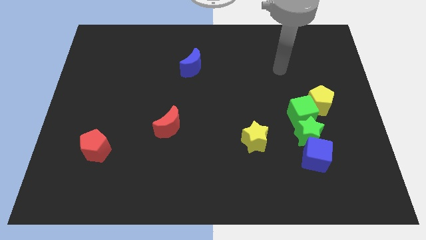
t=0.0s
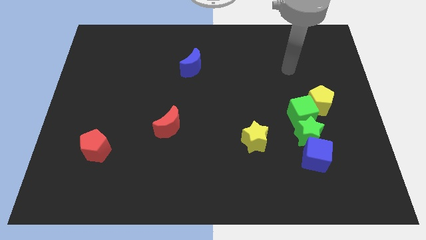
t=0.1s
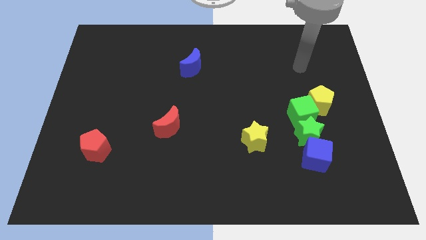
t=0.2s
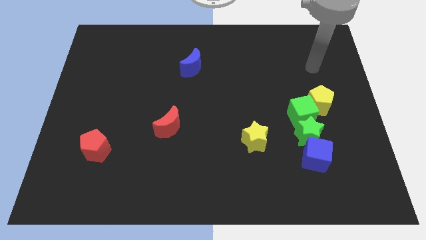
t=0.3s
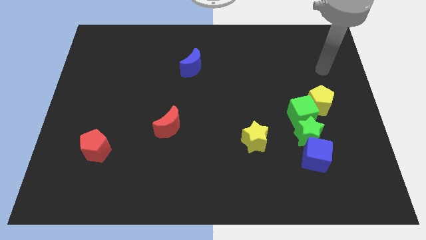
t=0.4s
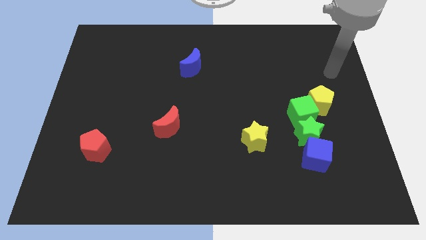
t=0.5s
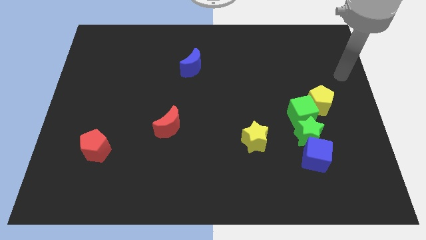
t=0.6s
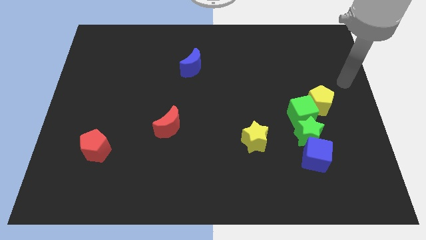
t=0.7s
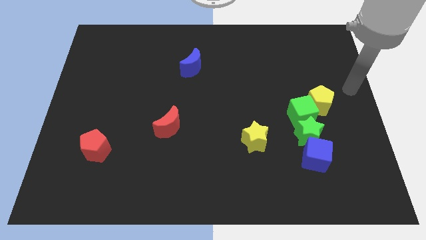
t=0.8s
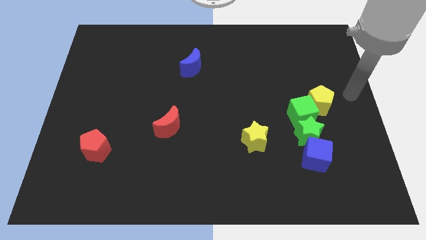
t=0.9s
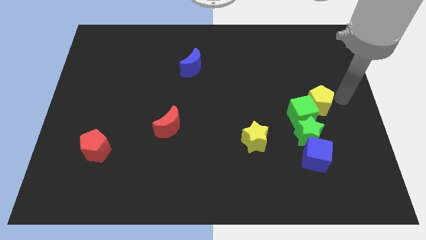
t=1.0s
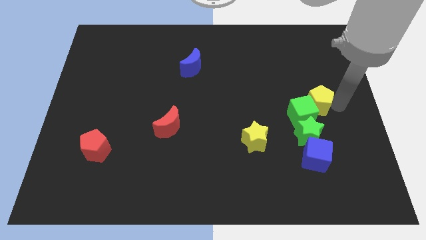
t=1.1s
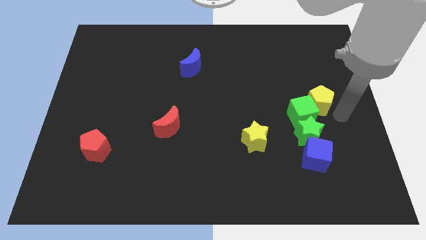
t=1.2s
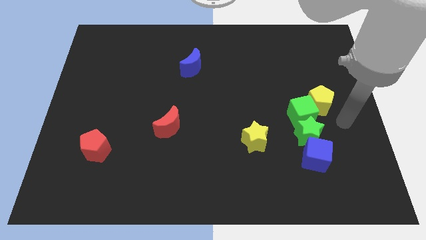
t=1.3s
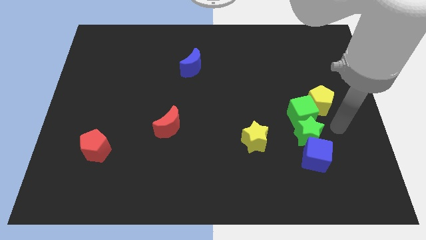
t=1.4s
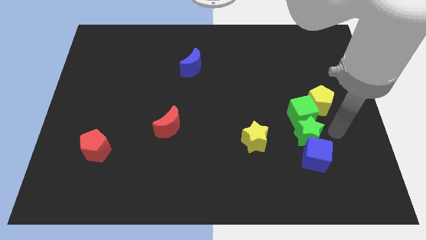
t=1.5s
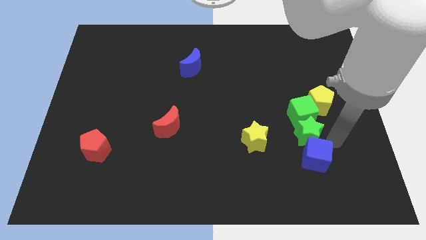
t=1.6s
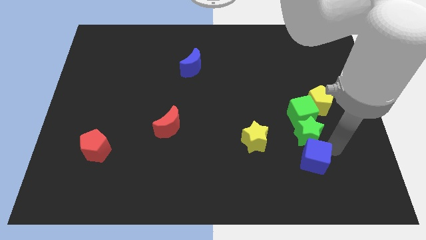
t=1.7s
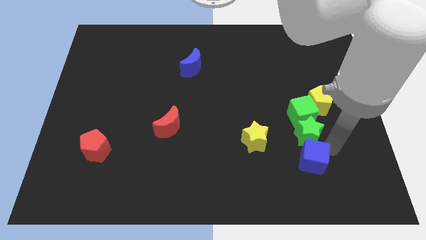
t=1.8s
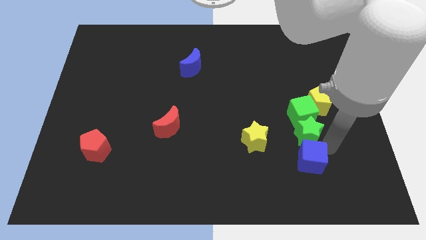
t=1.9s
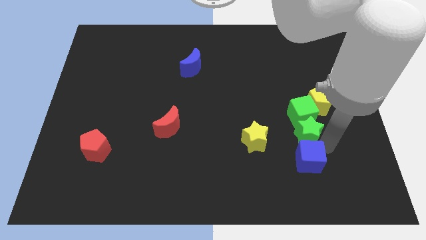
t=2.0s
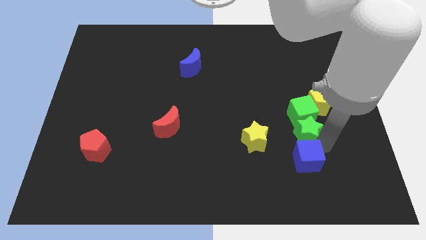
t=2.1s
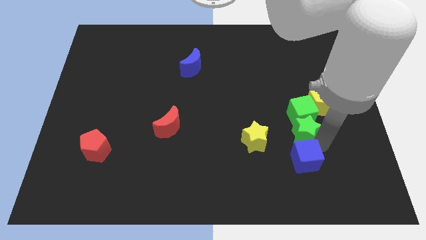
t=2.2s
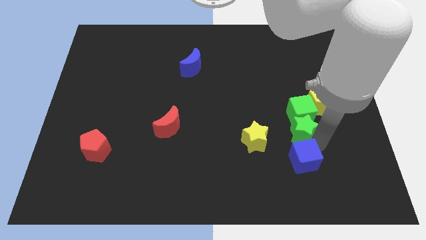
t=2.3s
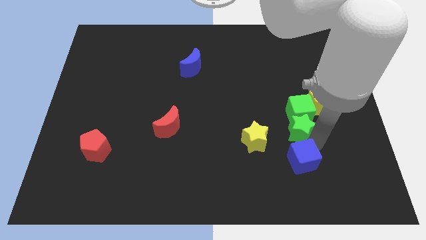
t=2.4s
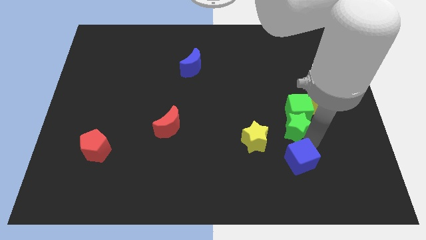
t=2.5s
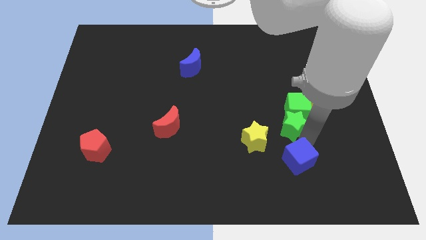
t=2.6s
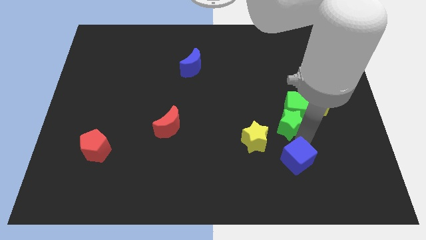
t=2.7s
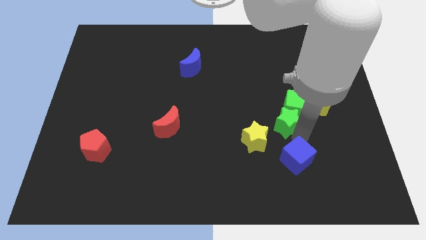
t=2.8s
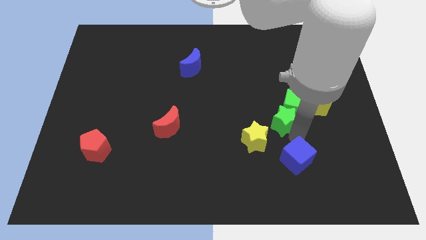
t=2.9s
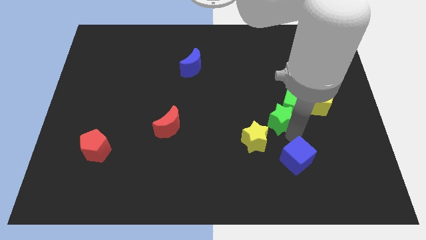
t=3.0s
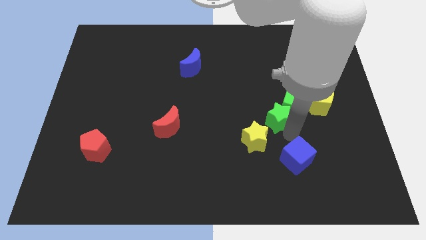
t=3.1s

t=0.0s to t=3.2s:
slide the green star somewhat diagonally upwards and to the left

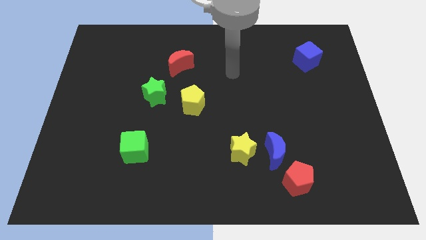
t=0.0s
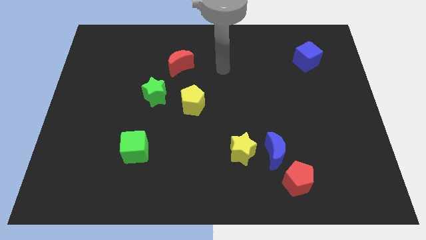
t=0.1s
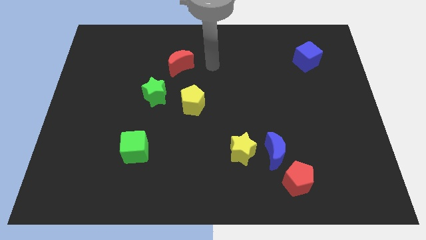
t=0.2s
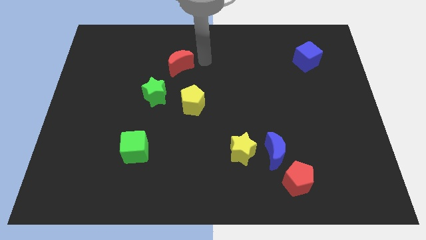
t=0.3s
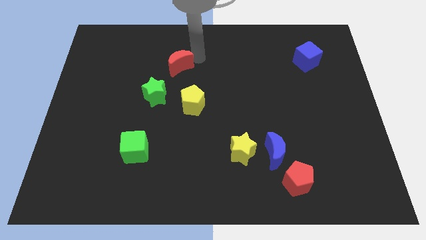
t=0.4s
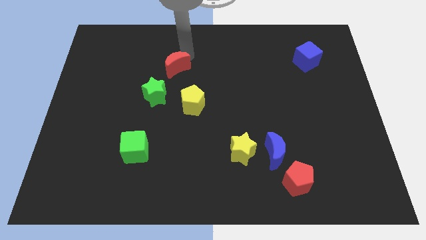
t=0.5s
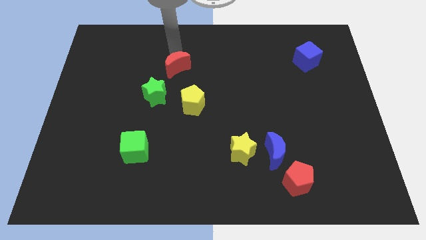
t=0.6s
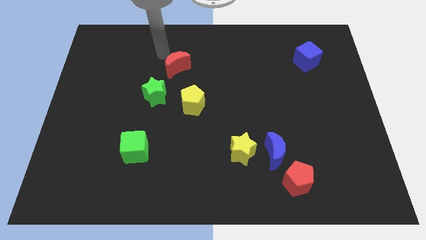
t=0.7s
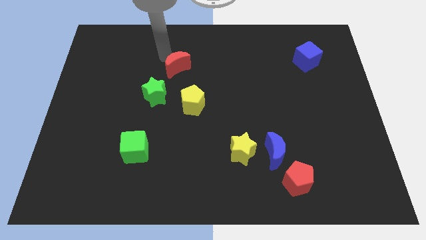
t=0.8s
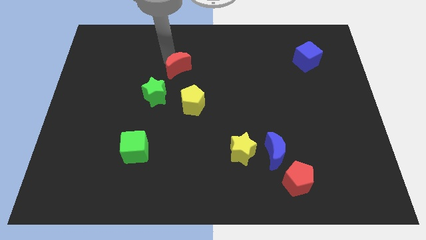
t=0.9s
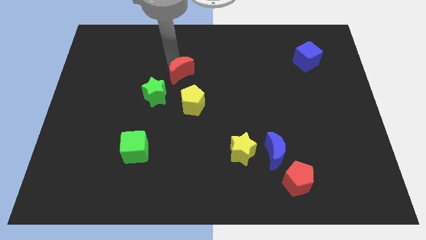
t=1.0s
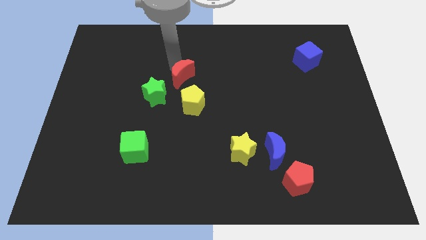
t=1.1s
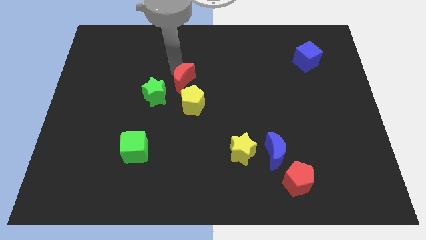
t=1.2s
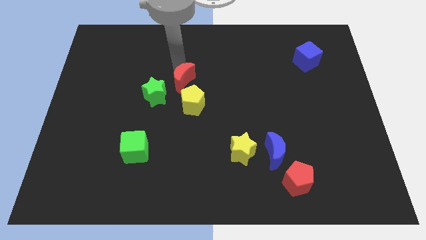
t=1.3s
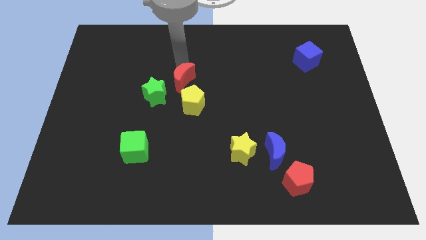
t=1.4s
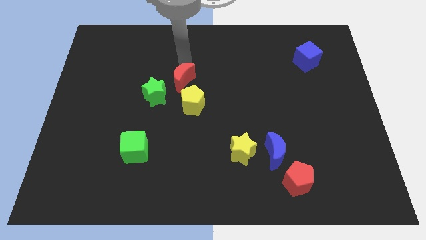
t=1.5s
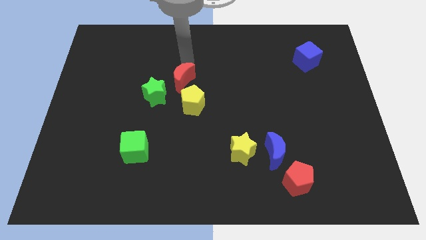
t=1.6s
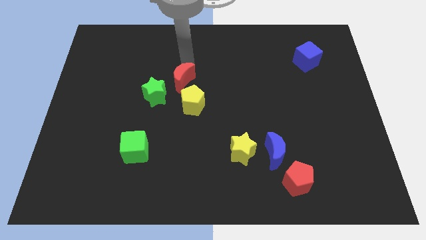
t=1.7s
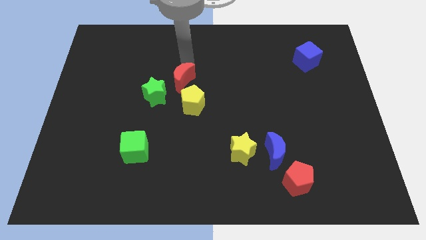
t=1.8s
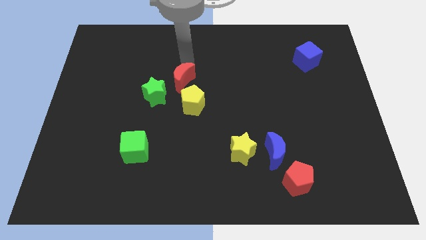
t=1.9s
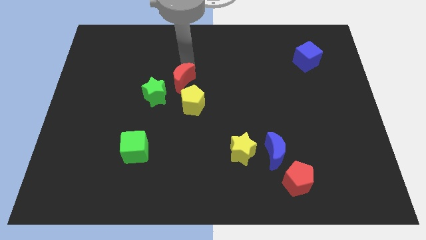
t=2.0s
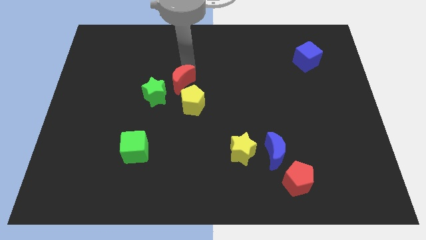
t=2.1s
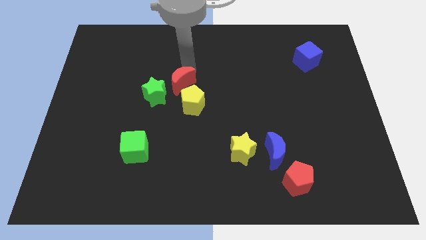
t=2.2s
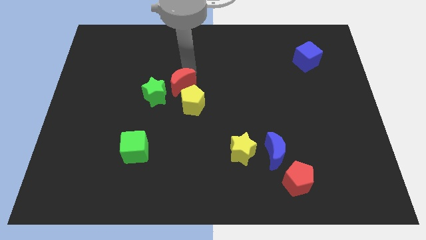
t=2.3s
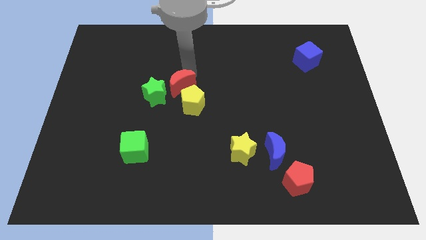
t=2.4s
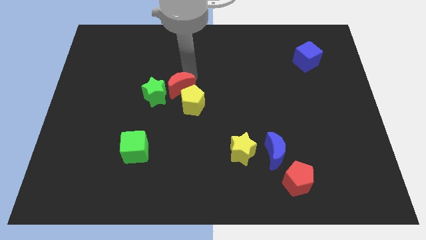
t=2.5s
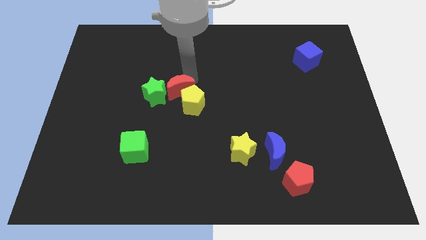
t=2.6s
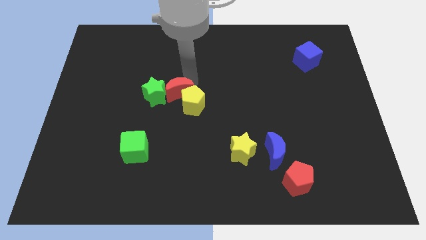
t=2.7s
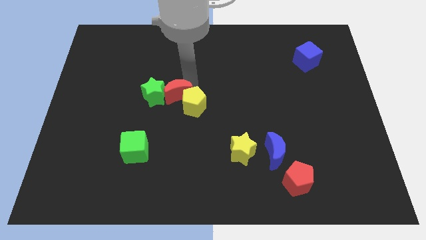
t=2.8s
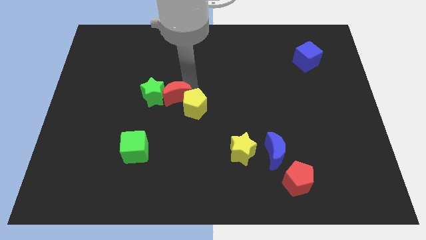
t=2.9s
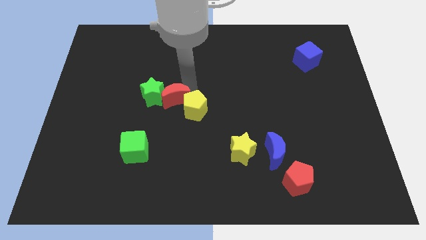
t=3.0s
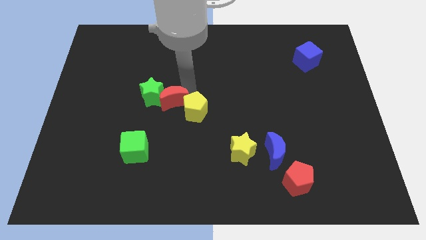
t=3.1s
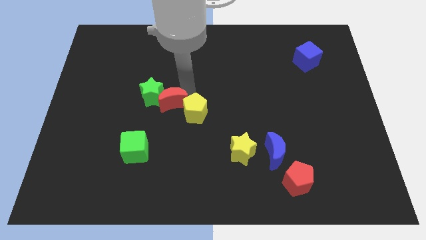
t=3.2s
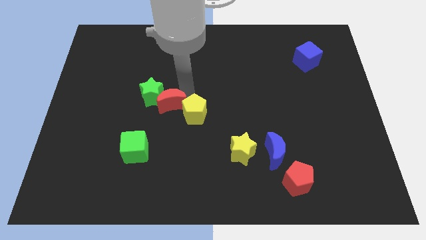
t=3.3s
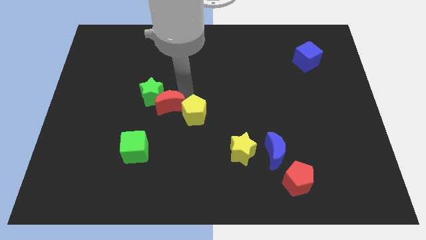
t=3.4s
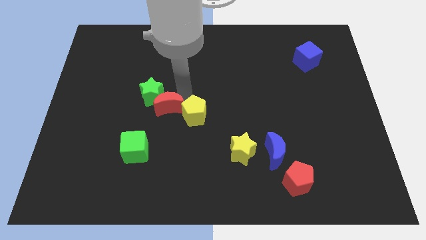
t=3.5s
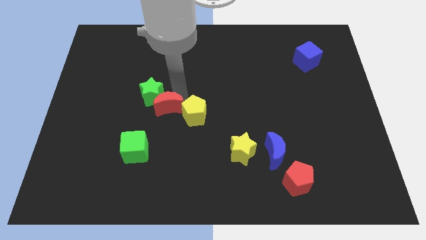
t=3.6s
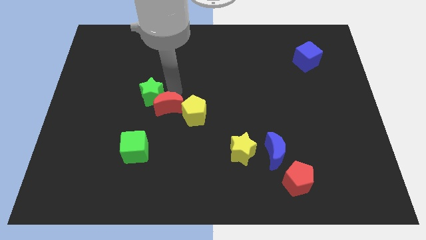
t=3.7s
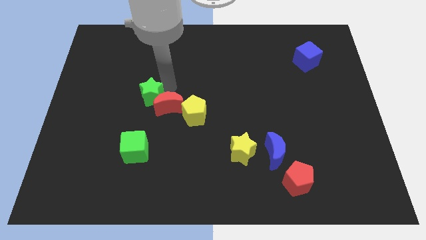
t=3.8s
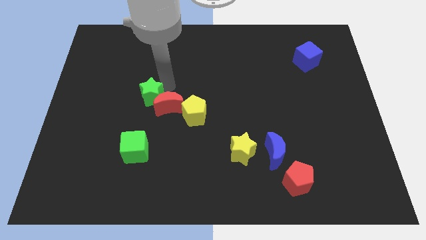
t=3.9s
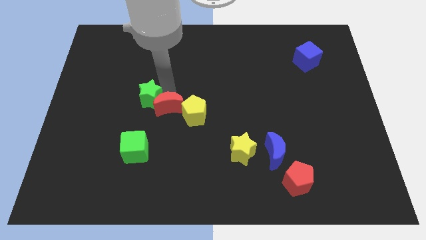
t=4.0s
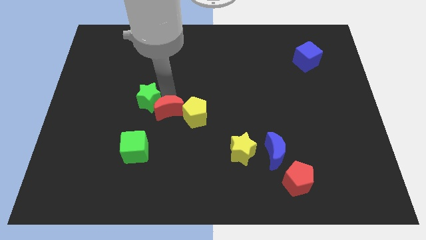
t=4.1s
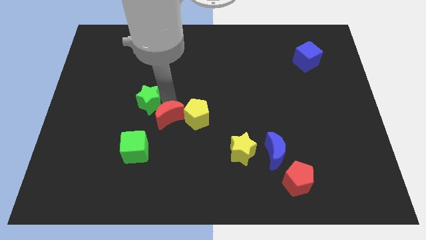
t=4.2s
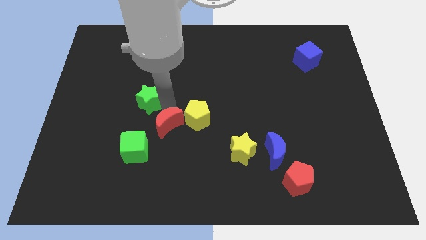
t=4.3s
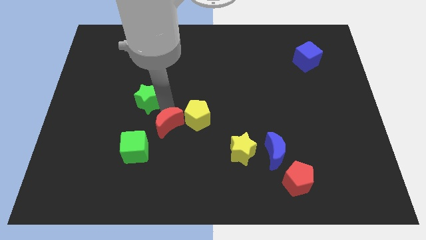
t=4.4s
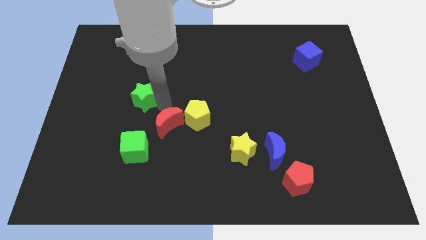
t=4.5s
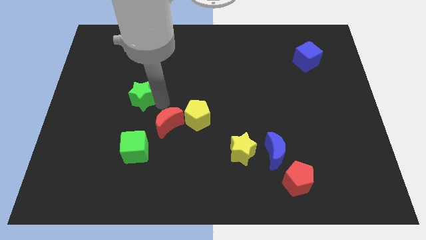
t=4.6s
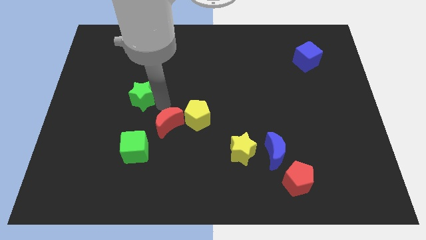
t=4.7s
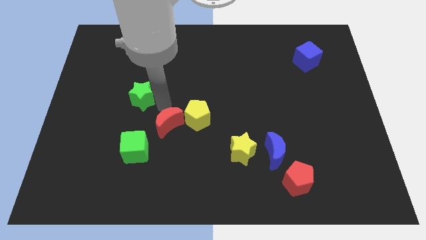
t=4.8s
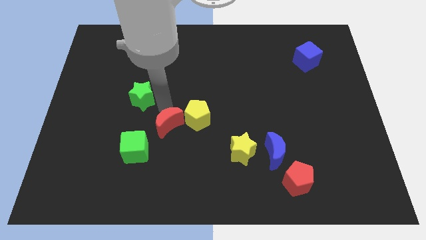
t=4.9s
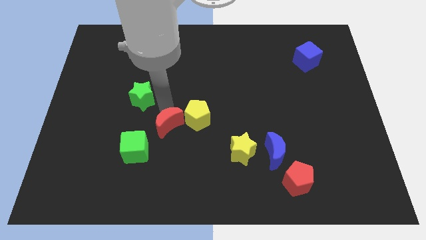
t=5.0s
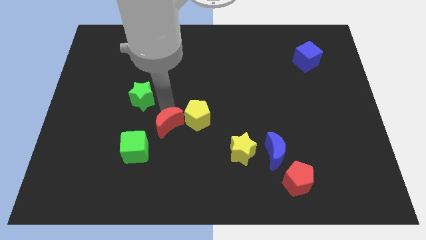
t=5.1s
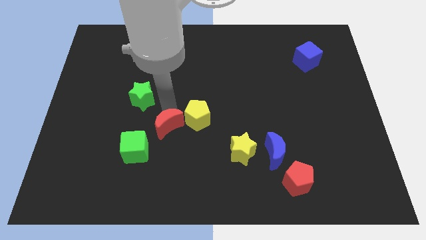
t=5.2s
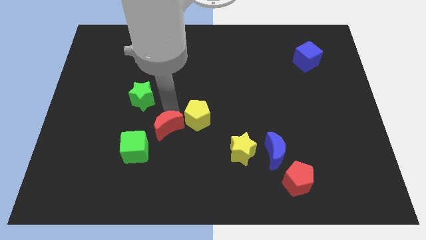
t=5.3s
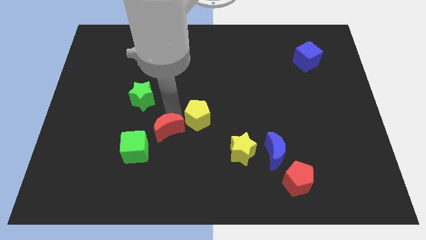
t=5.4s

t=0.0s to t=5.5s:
slide the red moon down
